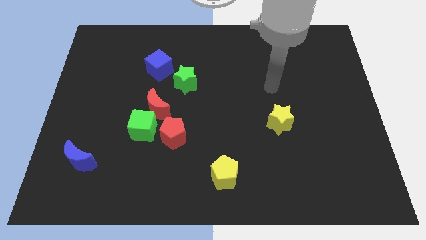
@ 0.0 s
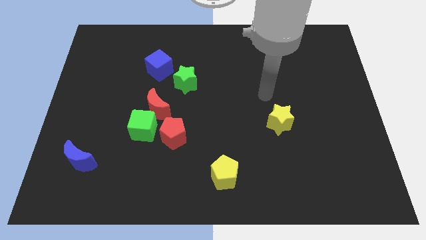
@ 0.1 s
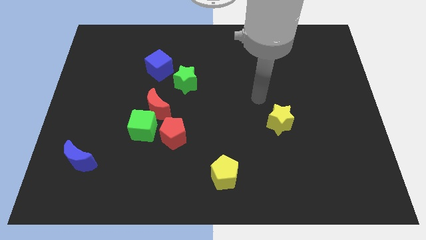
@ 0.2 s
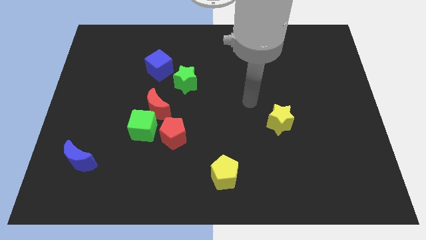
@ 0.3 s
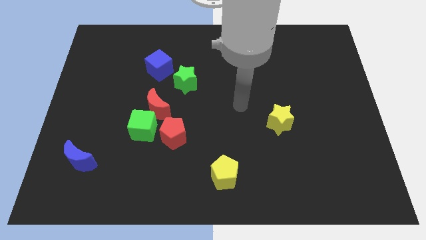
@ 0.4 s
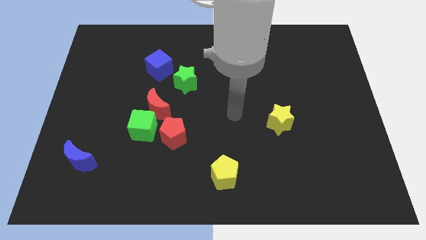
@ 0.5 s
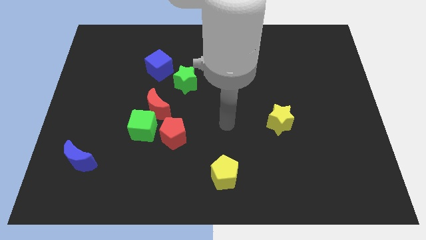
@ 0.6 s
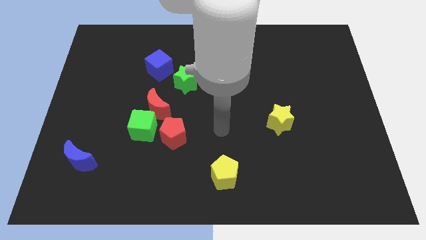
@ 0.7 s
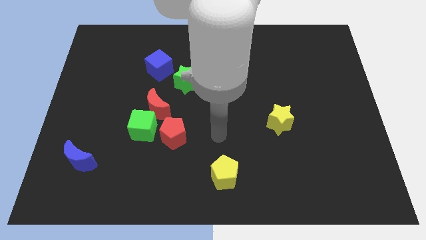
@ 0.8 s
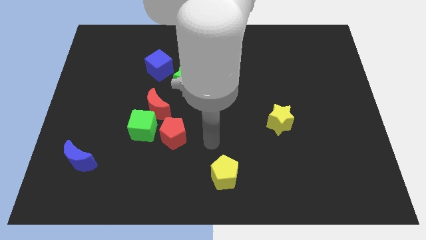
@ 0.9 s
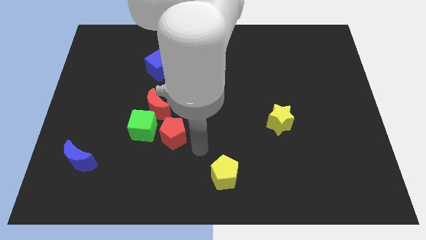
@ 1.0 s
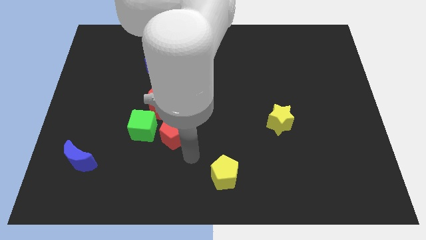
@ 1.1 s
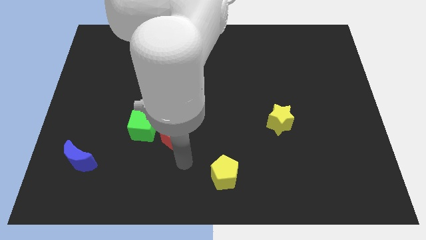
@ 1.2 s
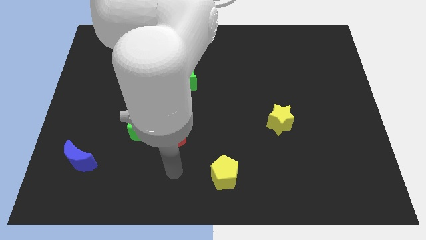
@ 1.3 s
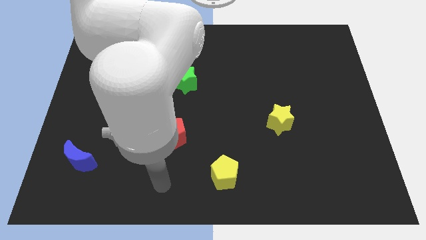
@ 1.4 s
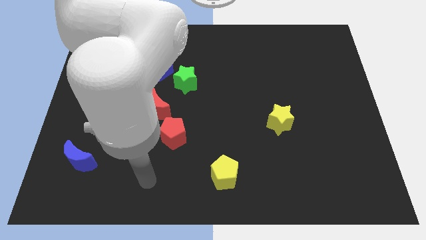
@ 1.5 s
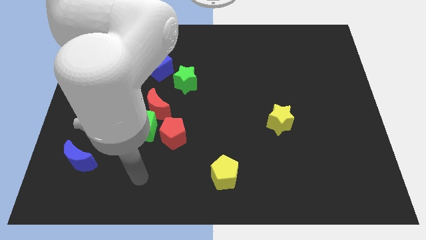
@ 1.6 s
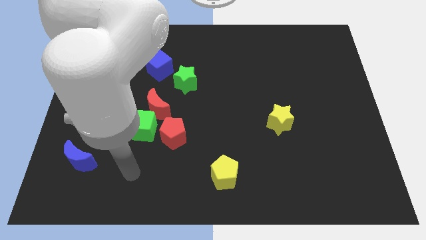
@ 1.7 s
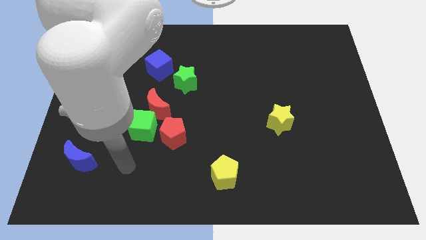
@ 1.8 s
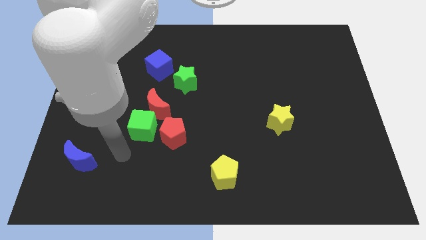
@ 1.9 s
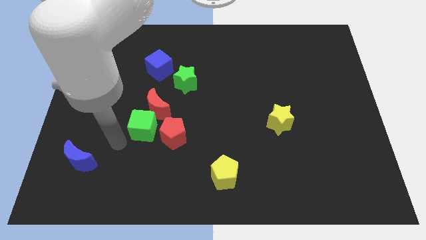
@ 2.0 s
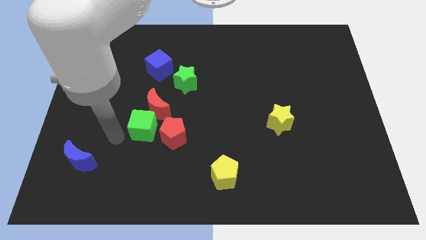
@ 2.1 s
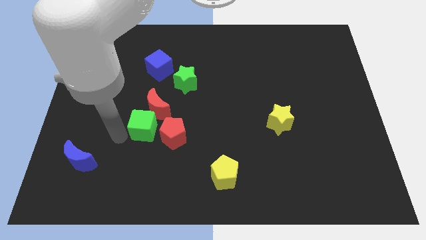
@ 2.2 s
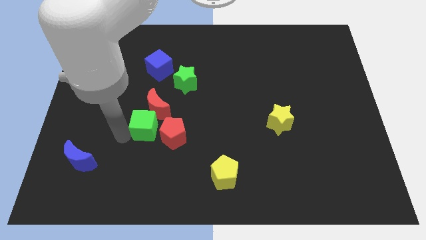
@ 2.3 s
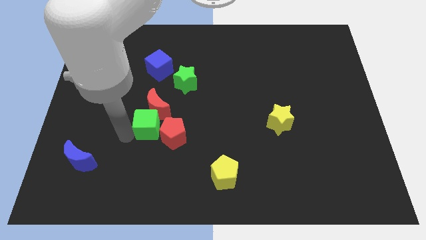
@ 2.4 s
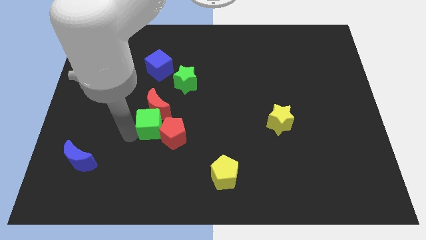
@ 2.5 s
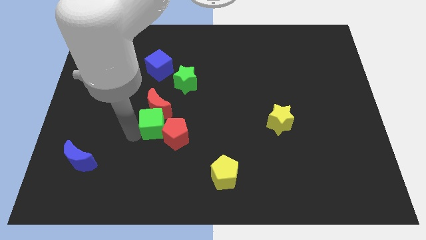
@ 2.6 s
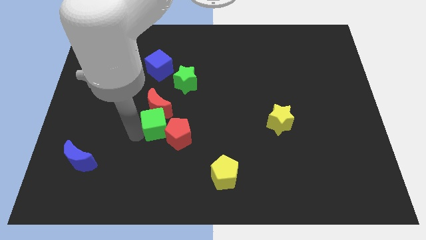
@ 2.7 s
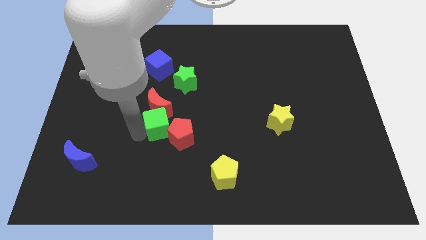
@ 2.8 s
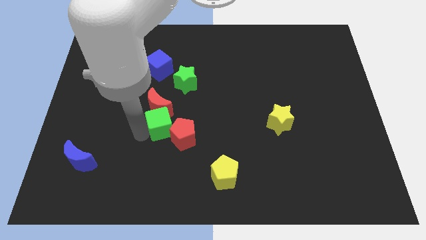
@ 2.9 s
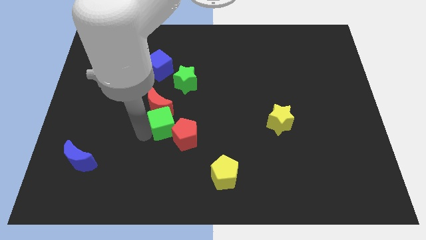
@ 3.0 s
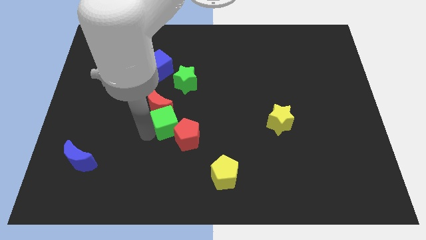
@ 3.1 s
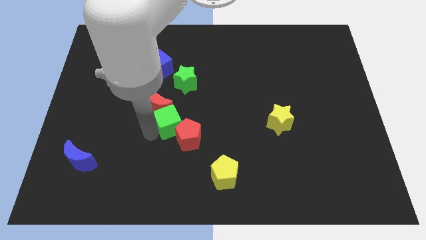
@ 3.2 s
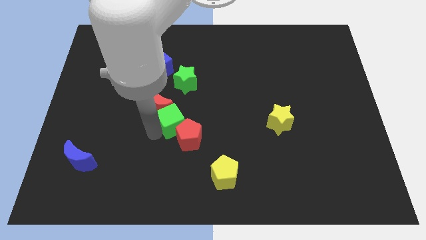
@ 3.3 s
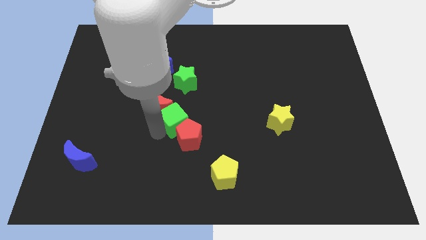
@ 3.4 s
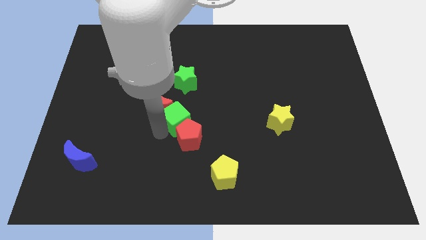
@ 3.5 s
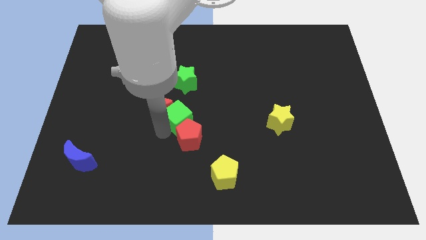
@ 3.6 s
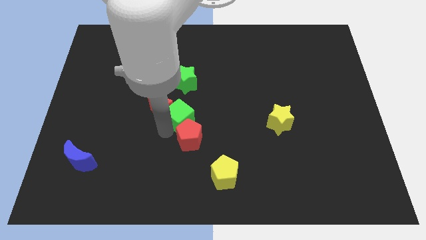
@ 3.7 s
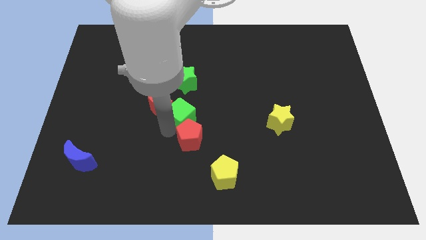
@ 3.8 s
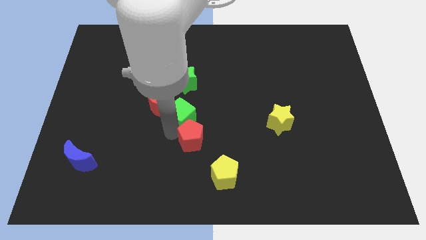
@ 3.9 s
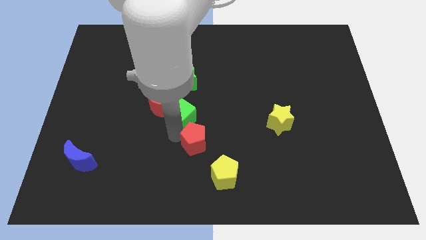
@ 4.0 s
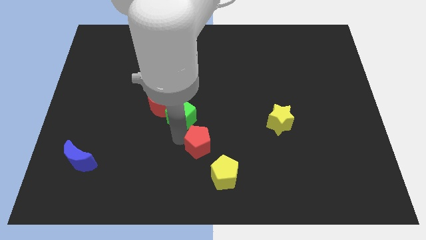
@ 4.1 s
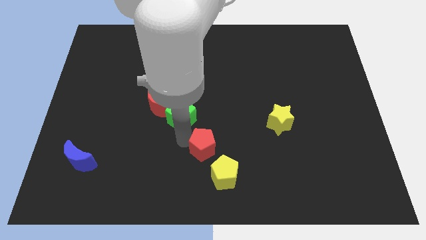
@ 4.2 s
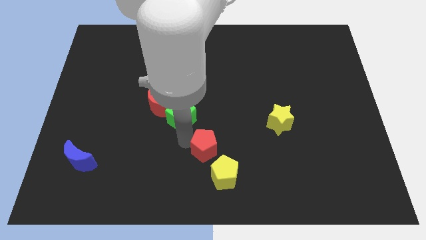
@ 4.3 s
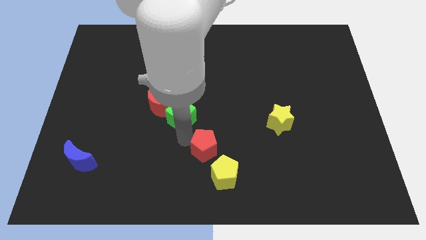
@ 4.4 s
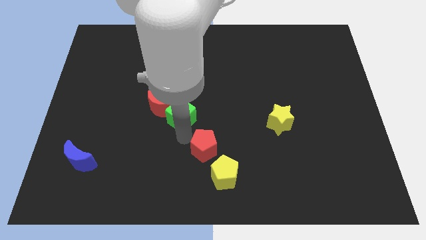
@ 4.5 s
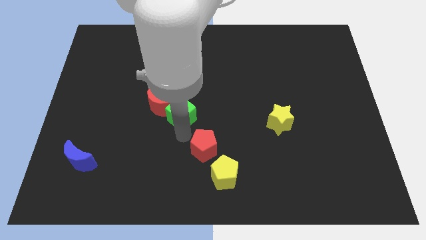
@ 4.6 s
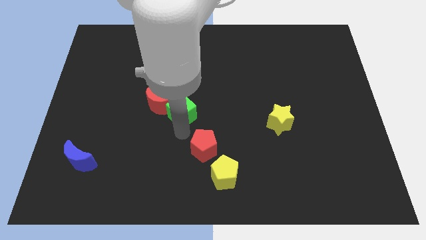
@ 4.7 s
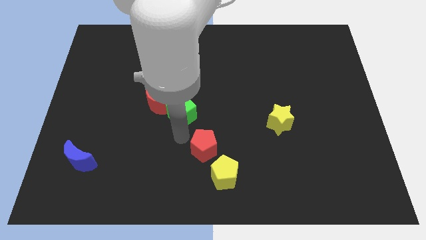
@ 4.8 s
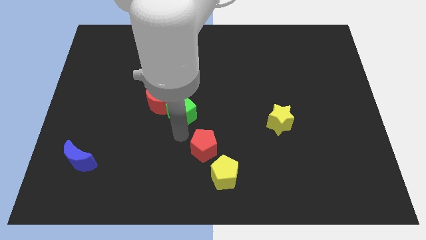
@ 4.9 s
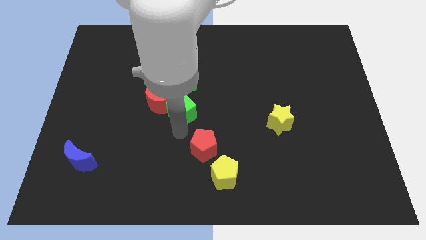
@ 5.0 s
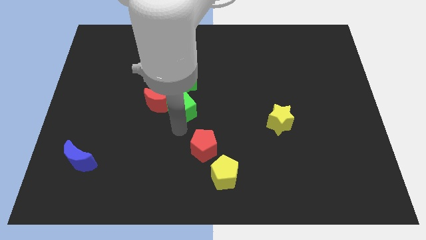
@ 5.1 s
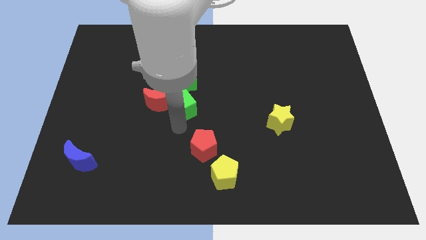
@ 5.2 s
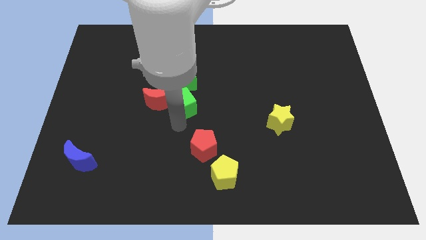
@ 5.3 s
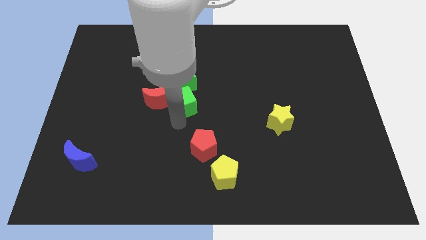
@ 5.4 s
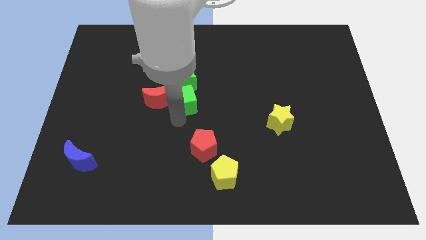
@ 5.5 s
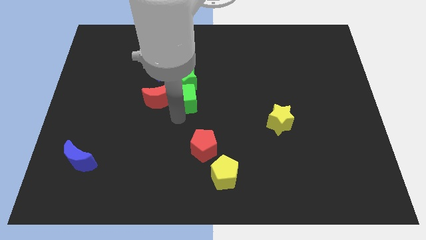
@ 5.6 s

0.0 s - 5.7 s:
slide the green cube towards the green star

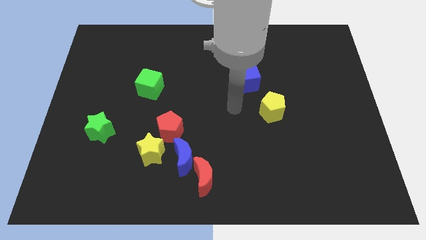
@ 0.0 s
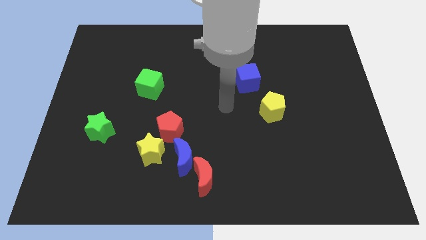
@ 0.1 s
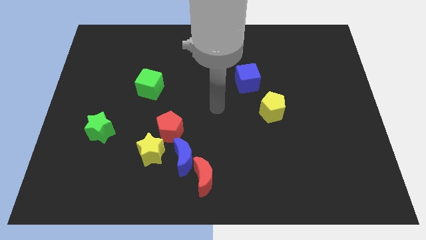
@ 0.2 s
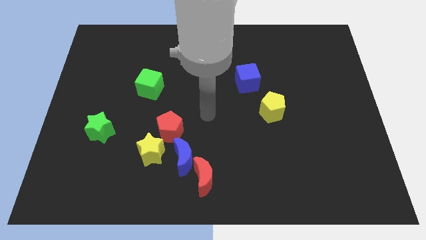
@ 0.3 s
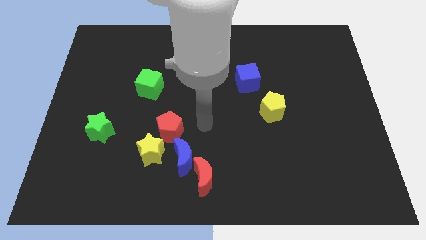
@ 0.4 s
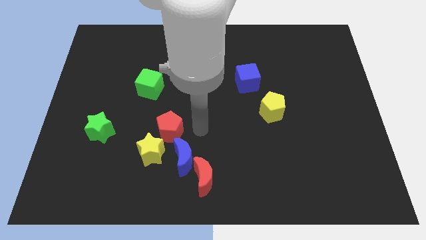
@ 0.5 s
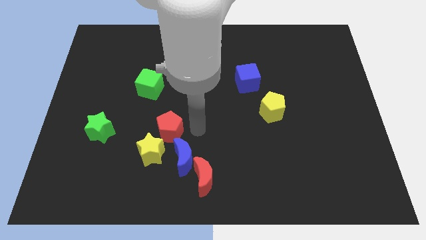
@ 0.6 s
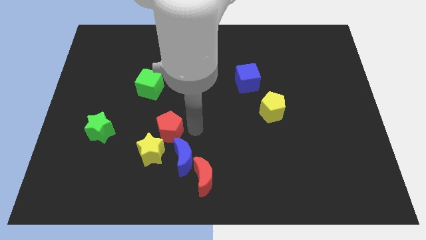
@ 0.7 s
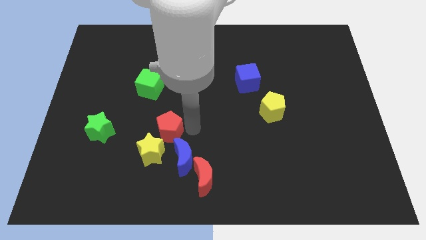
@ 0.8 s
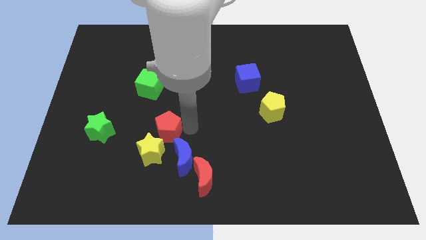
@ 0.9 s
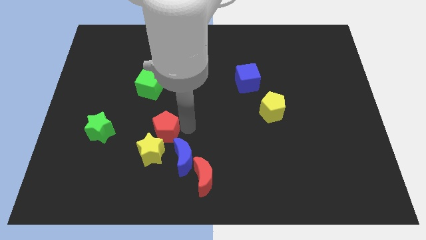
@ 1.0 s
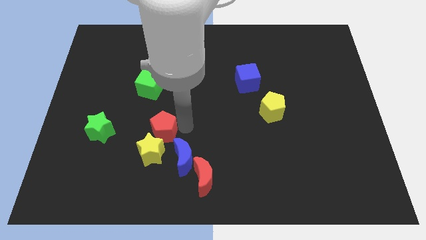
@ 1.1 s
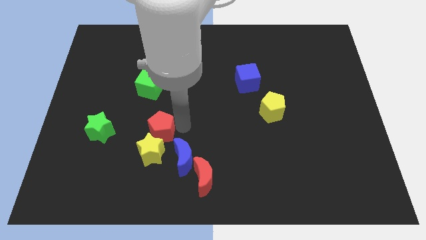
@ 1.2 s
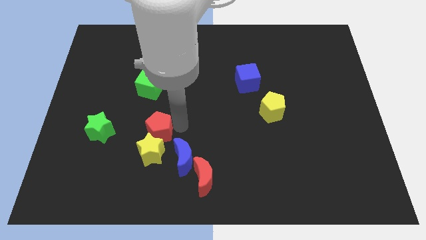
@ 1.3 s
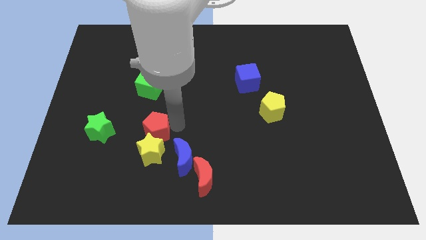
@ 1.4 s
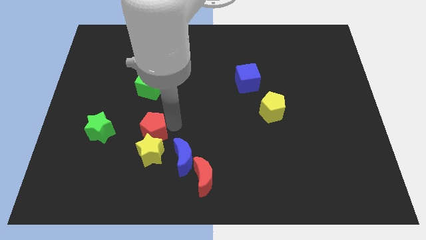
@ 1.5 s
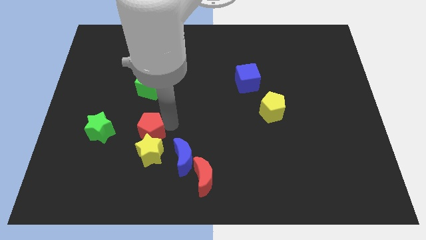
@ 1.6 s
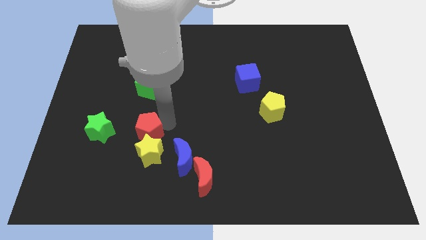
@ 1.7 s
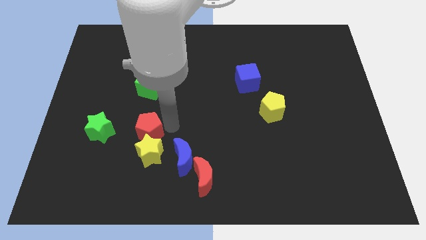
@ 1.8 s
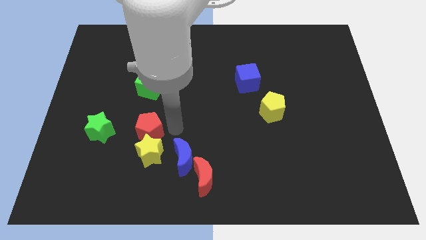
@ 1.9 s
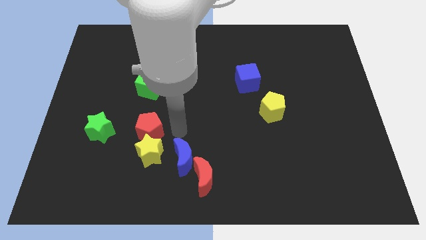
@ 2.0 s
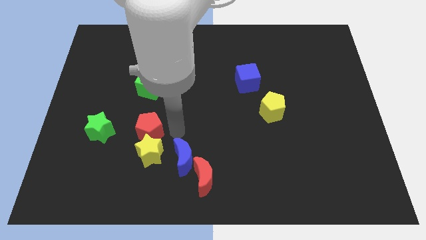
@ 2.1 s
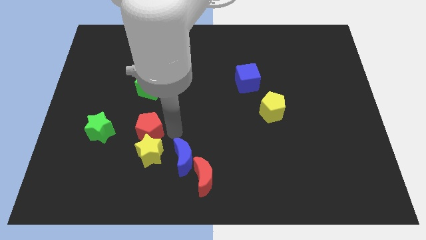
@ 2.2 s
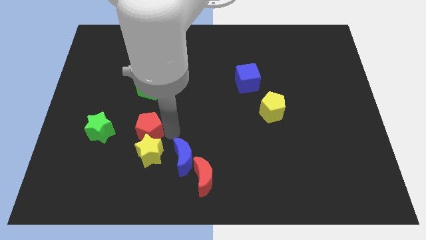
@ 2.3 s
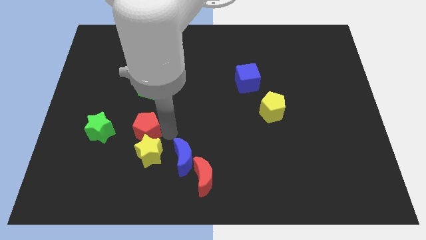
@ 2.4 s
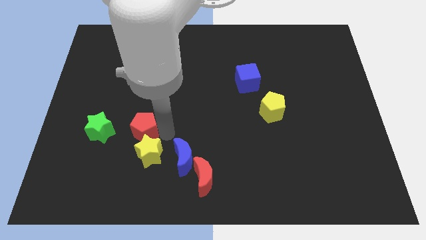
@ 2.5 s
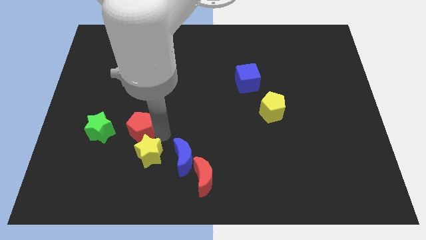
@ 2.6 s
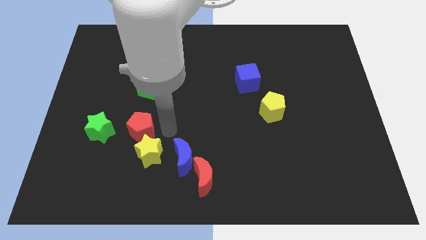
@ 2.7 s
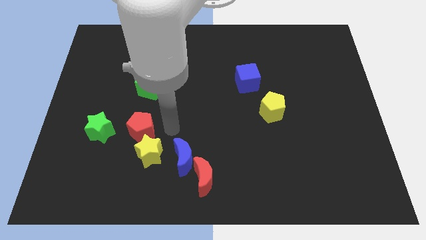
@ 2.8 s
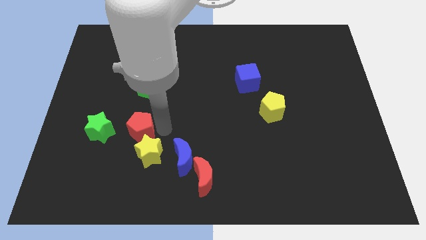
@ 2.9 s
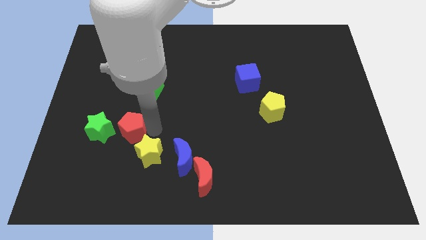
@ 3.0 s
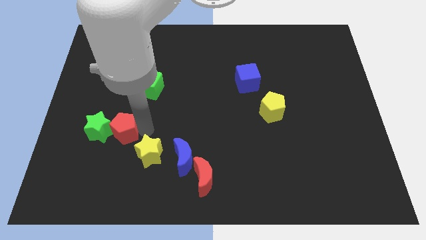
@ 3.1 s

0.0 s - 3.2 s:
move the red pentagon close to the green star
